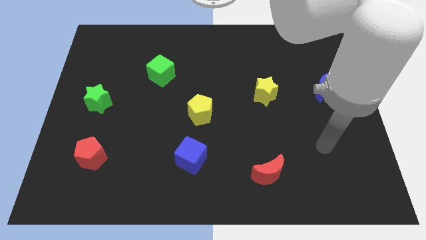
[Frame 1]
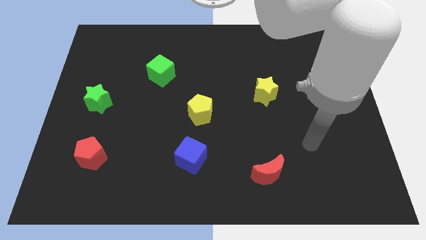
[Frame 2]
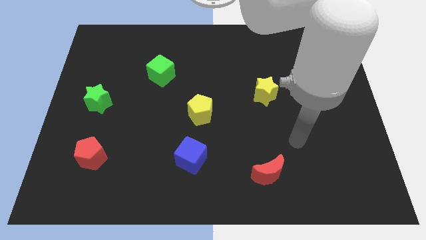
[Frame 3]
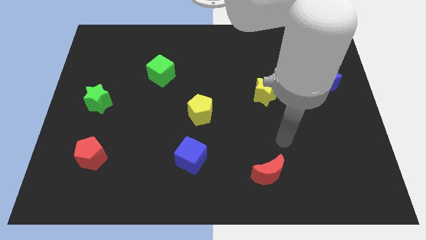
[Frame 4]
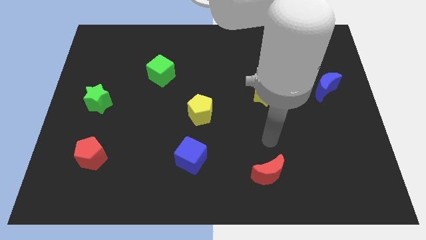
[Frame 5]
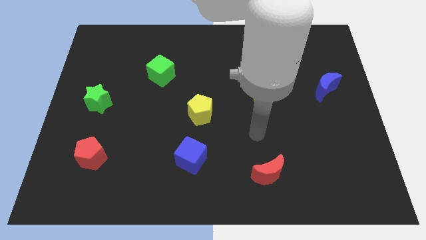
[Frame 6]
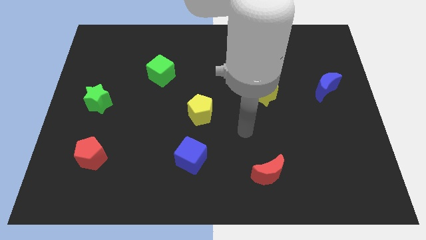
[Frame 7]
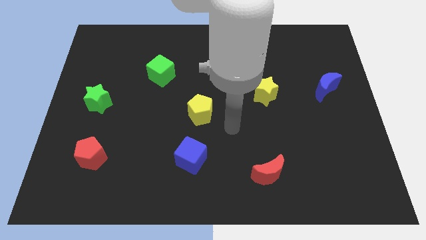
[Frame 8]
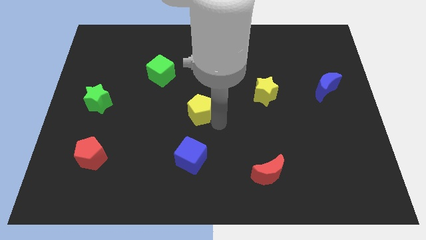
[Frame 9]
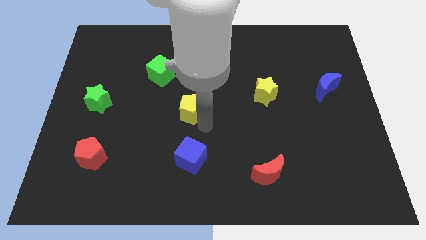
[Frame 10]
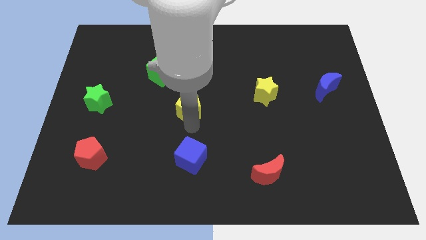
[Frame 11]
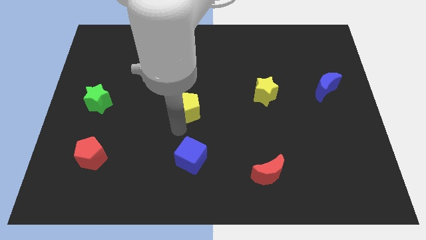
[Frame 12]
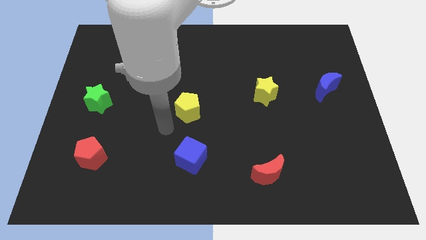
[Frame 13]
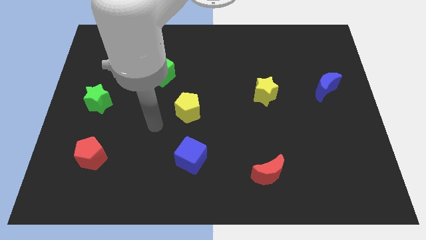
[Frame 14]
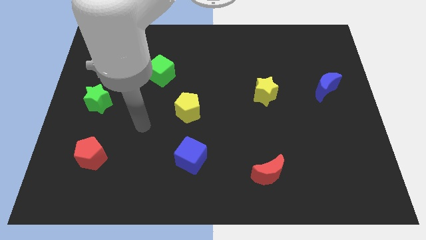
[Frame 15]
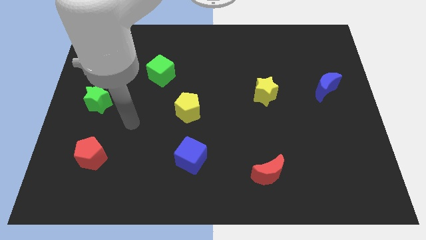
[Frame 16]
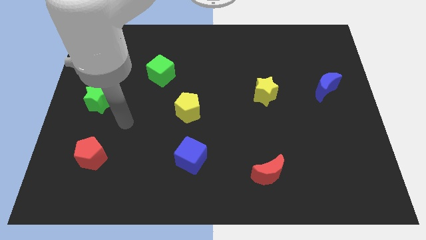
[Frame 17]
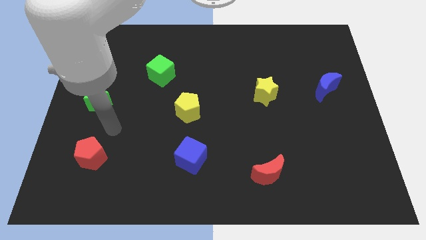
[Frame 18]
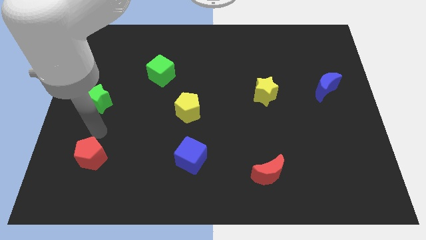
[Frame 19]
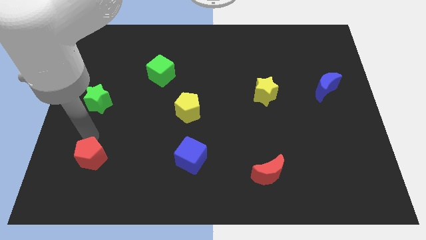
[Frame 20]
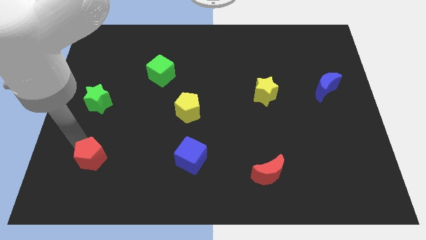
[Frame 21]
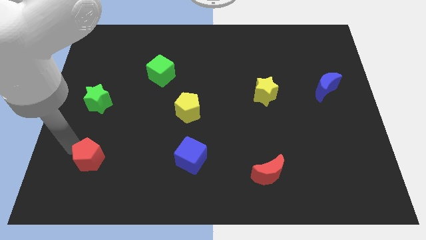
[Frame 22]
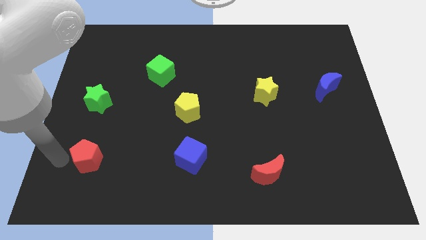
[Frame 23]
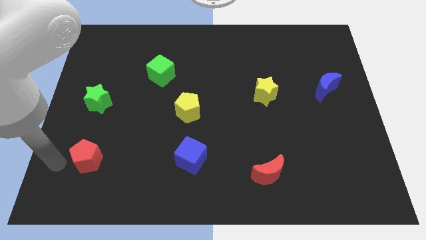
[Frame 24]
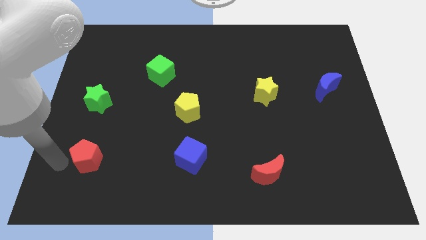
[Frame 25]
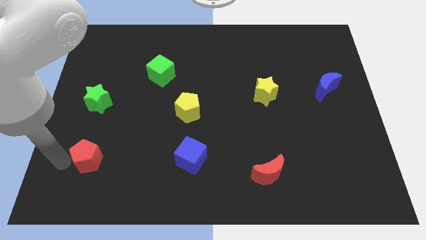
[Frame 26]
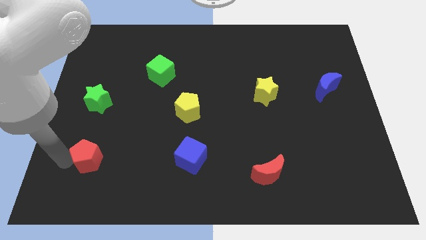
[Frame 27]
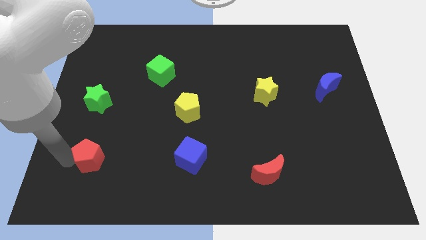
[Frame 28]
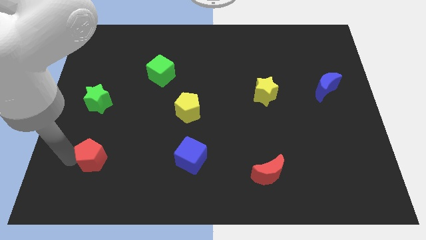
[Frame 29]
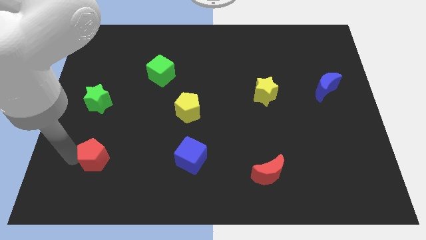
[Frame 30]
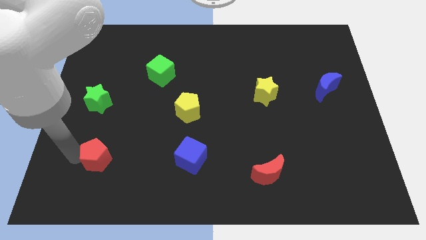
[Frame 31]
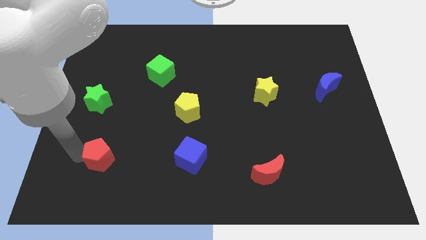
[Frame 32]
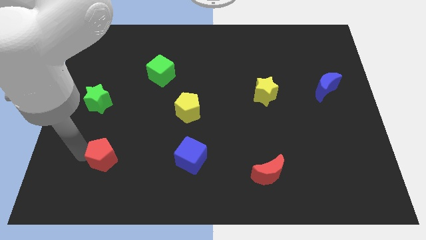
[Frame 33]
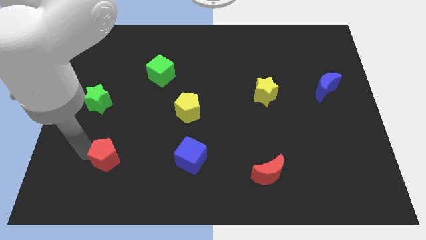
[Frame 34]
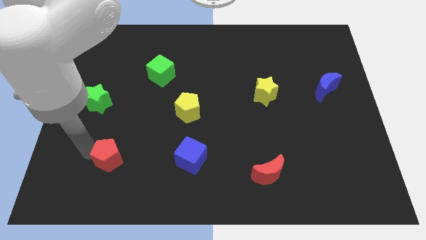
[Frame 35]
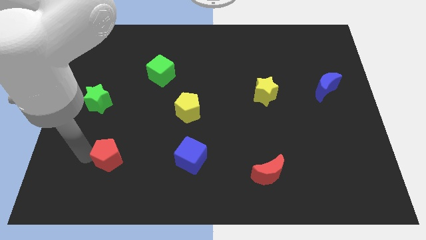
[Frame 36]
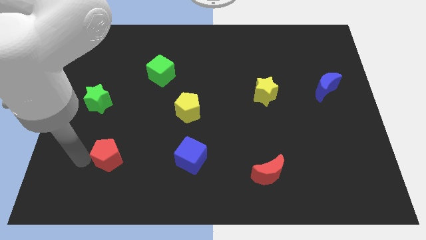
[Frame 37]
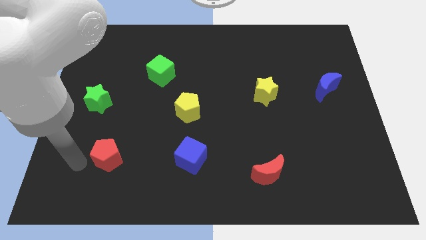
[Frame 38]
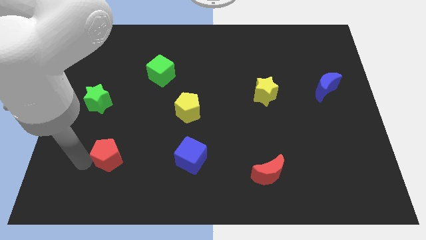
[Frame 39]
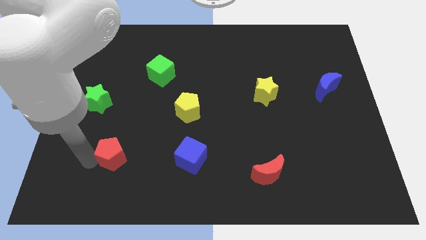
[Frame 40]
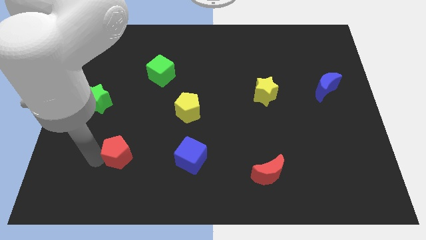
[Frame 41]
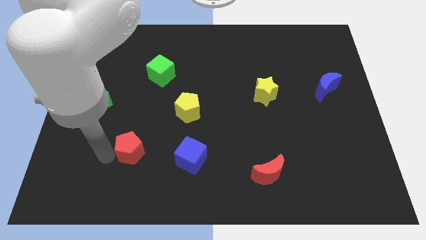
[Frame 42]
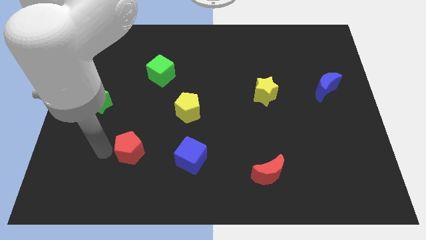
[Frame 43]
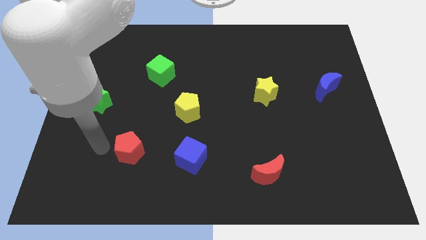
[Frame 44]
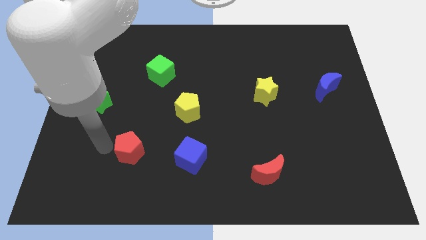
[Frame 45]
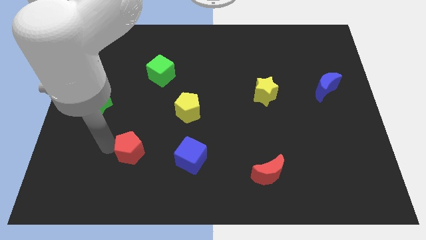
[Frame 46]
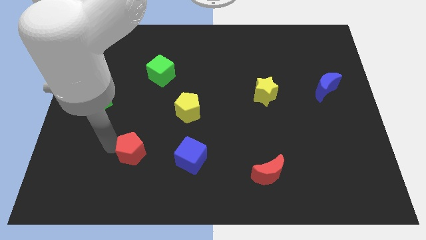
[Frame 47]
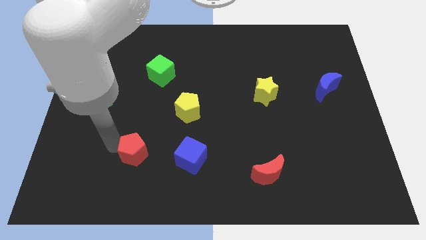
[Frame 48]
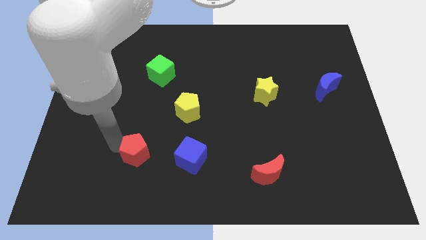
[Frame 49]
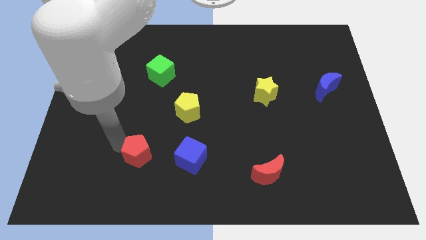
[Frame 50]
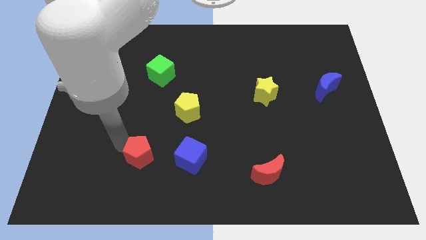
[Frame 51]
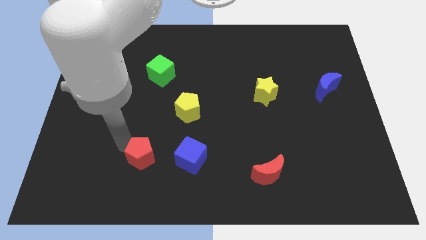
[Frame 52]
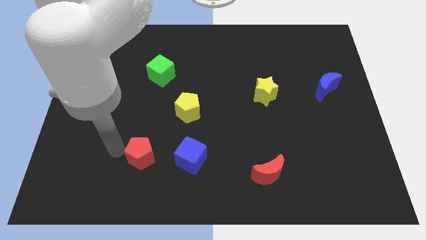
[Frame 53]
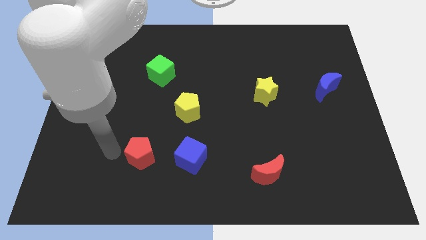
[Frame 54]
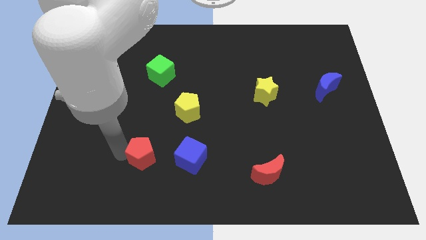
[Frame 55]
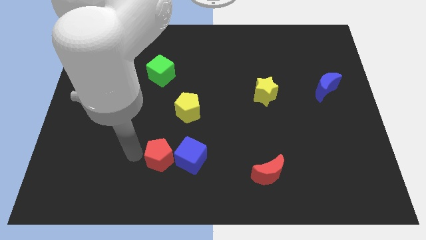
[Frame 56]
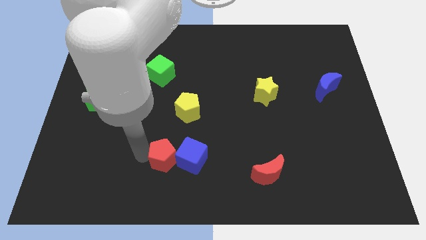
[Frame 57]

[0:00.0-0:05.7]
move the red pentagon towards the blue cube

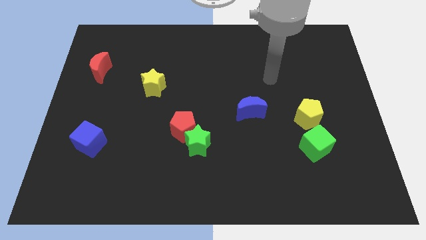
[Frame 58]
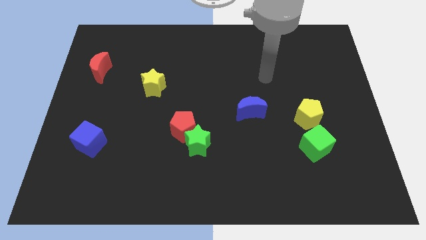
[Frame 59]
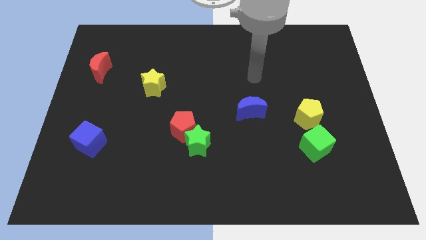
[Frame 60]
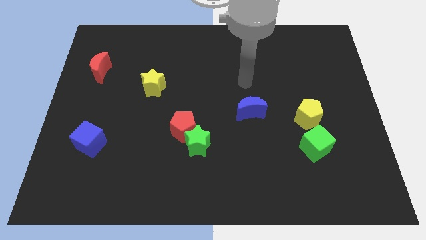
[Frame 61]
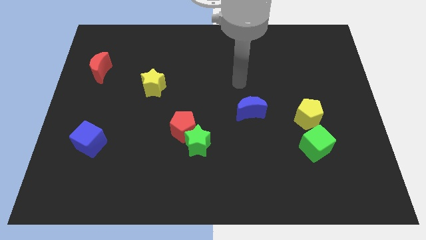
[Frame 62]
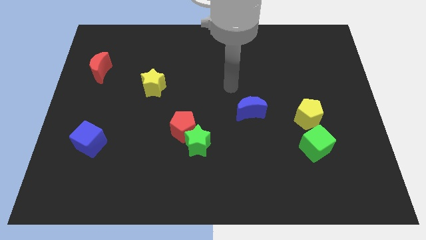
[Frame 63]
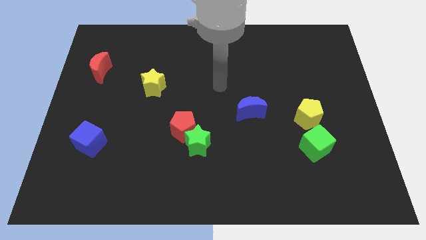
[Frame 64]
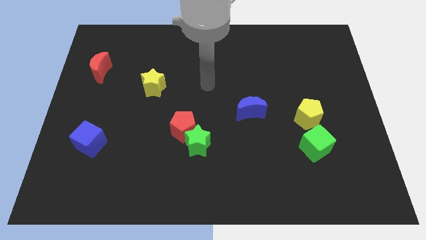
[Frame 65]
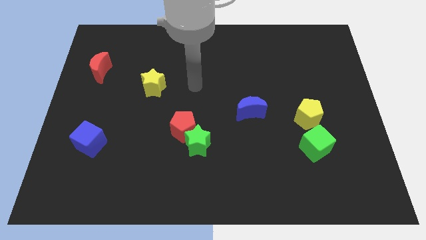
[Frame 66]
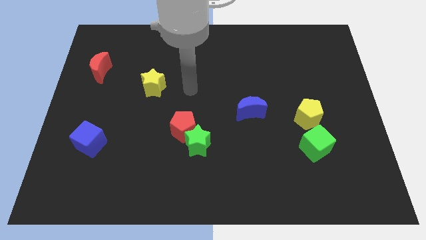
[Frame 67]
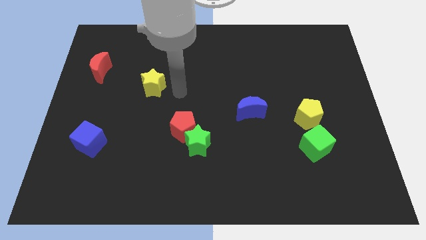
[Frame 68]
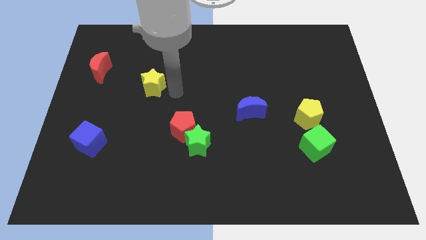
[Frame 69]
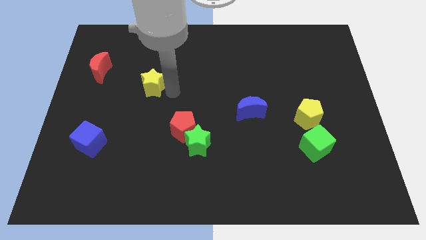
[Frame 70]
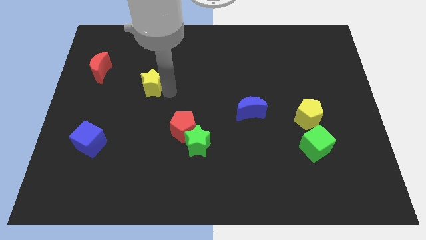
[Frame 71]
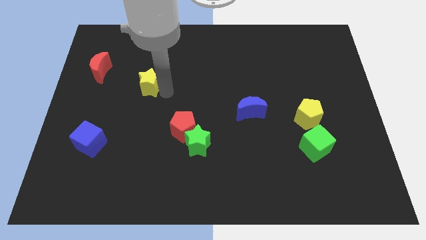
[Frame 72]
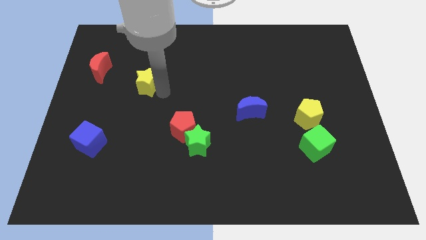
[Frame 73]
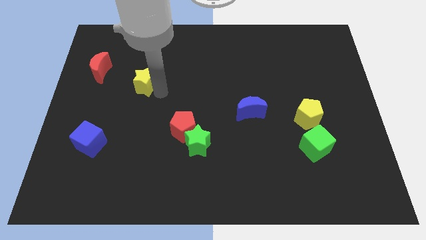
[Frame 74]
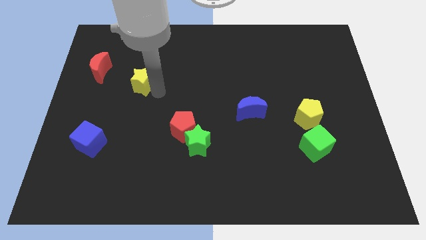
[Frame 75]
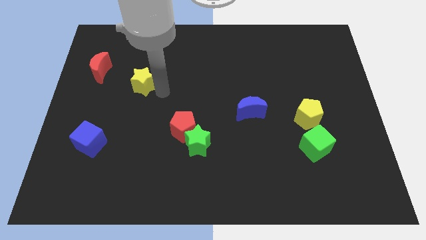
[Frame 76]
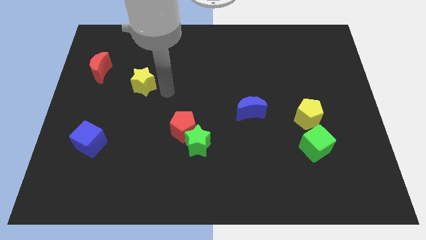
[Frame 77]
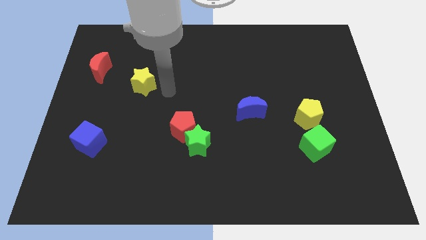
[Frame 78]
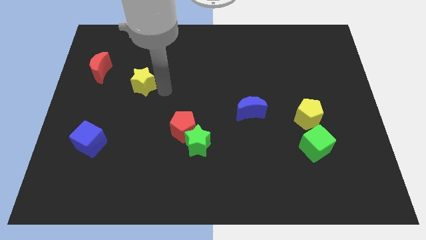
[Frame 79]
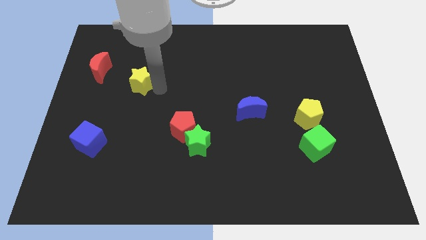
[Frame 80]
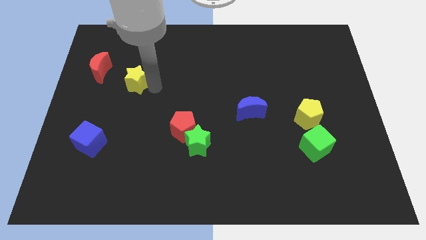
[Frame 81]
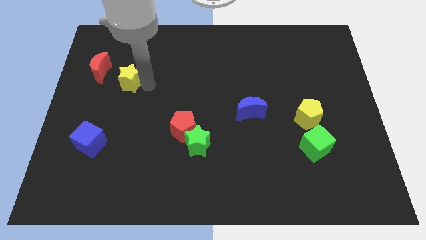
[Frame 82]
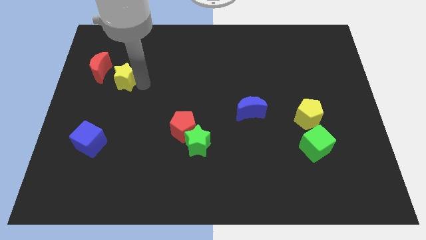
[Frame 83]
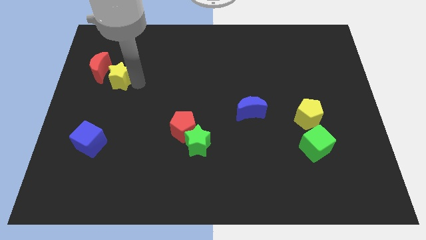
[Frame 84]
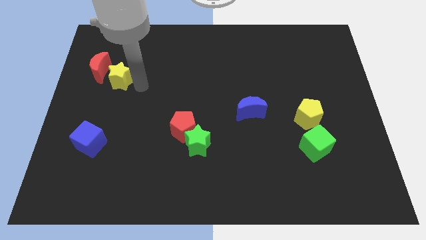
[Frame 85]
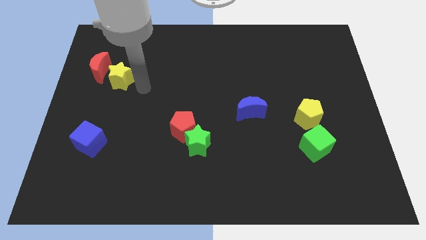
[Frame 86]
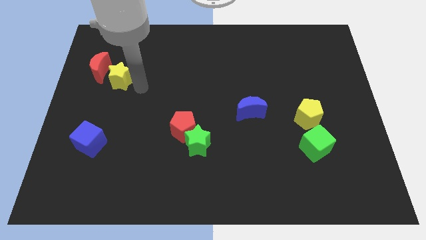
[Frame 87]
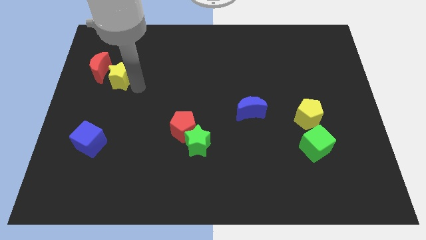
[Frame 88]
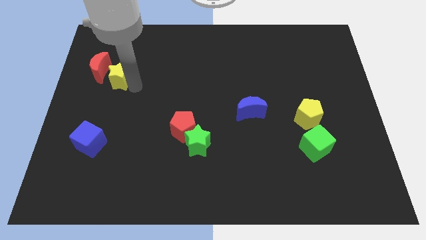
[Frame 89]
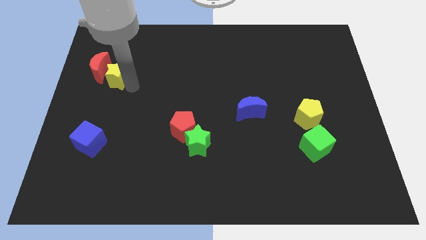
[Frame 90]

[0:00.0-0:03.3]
push the yellow star close to the red moon
